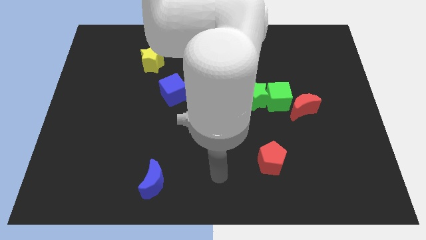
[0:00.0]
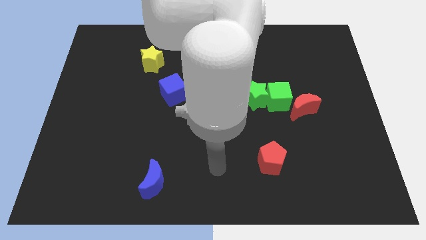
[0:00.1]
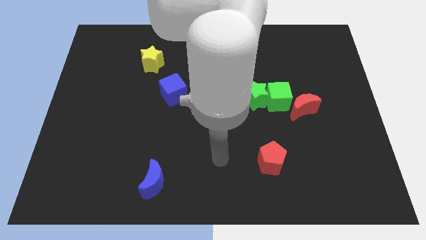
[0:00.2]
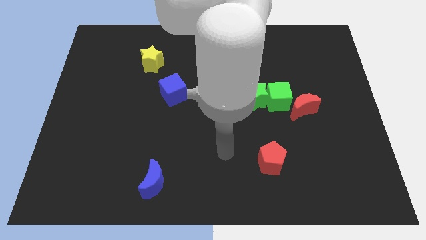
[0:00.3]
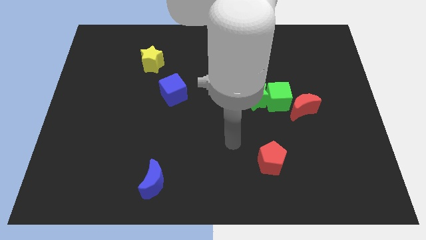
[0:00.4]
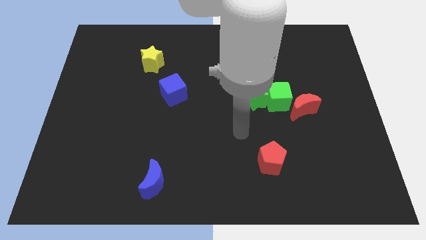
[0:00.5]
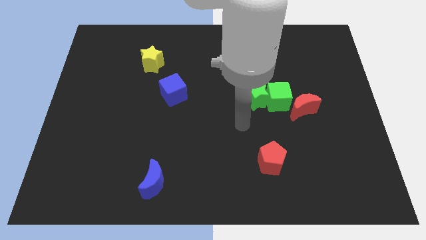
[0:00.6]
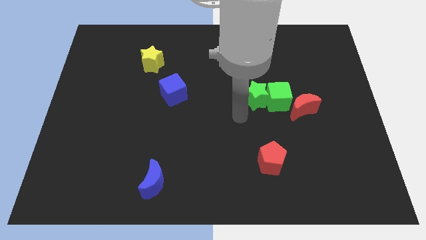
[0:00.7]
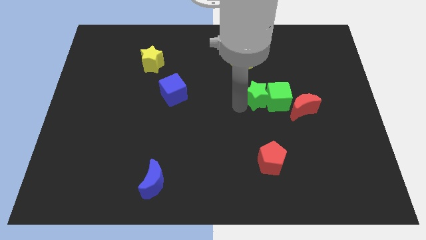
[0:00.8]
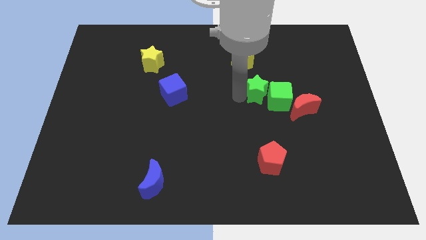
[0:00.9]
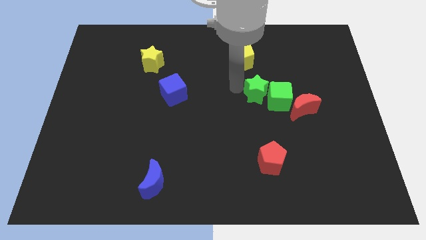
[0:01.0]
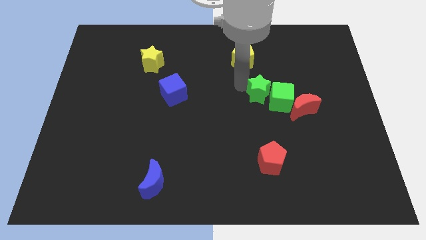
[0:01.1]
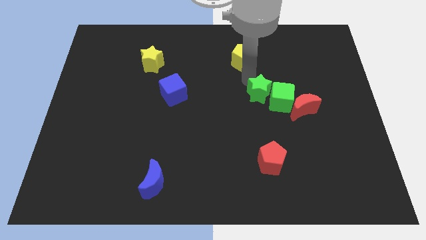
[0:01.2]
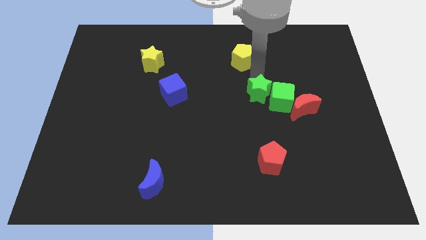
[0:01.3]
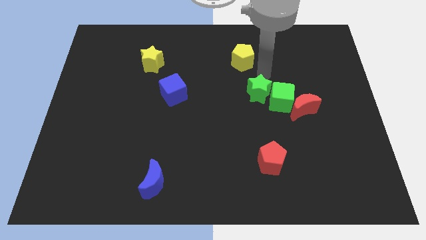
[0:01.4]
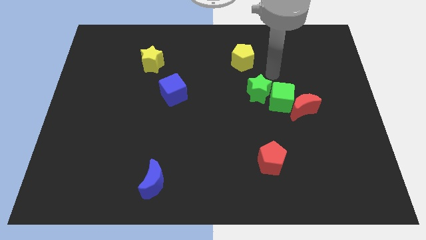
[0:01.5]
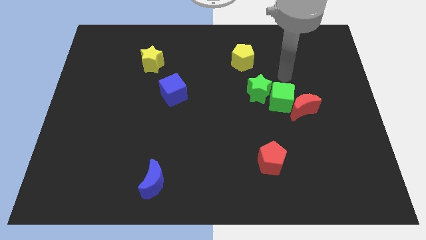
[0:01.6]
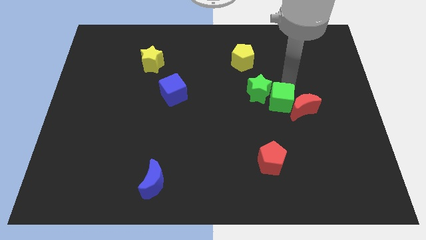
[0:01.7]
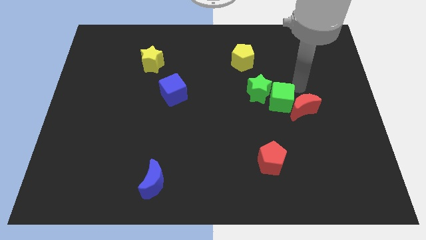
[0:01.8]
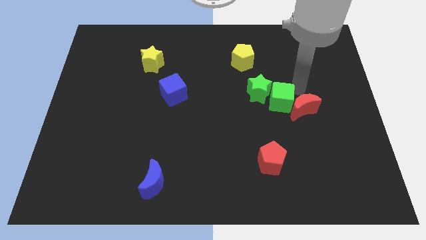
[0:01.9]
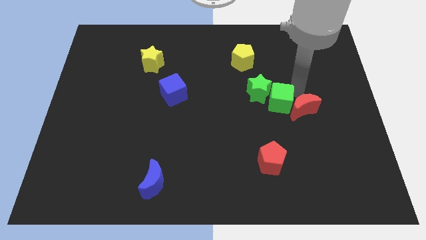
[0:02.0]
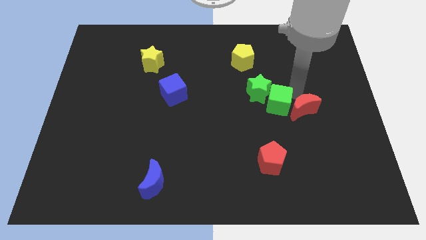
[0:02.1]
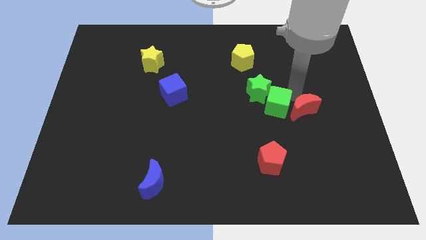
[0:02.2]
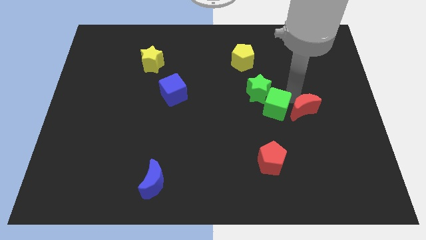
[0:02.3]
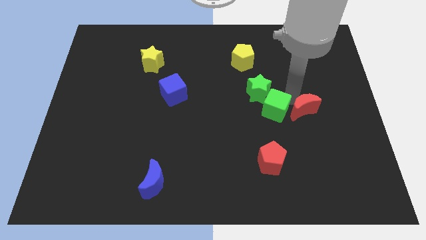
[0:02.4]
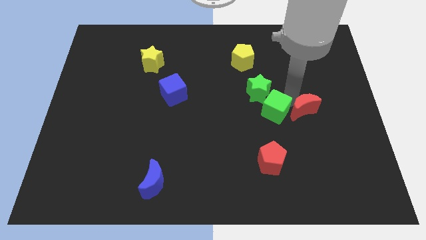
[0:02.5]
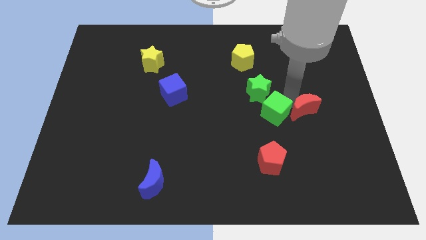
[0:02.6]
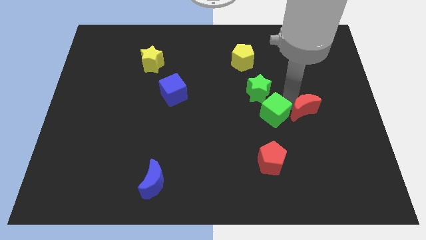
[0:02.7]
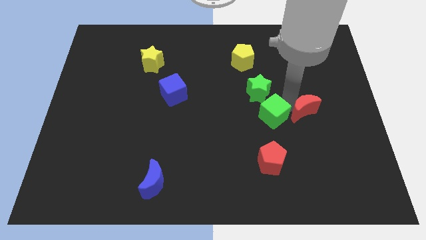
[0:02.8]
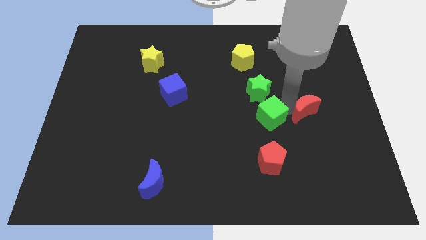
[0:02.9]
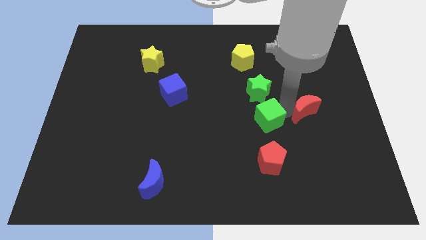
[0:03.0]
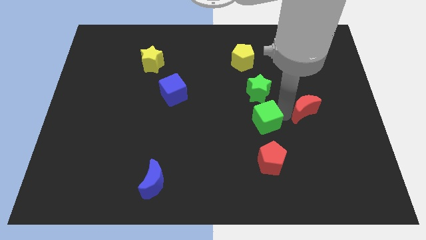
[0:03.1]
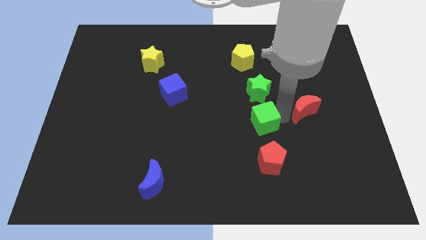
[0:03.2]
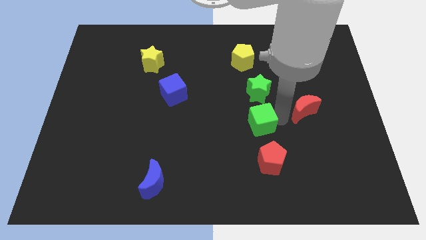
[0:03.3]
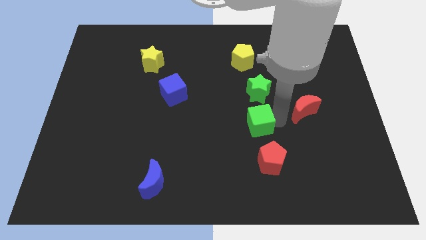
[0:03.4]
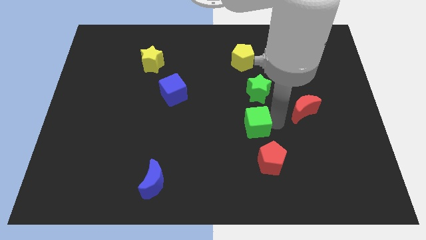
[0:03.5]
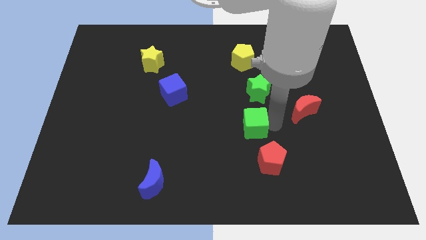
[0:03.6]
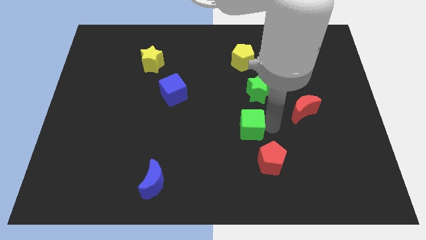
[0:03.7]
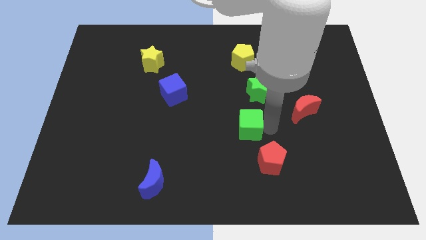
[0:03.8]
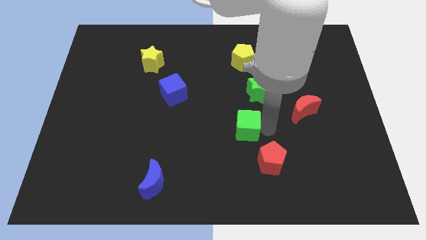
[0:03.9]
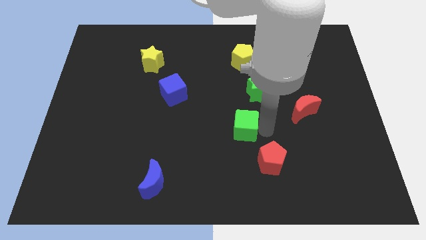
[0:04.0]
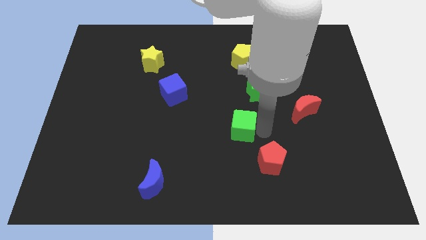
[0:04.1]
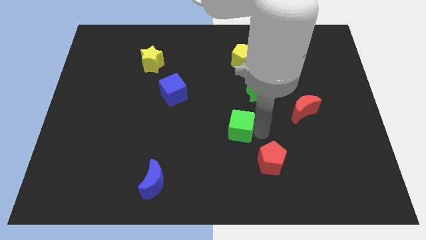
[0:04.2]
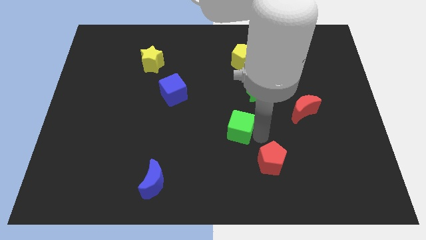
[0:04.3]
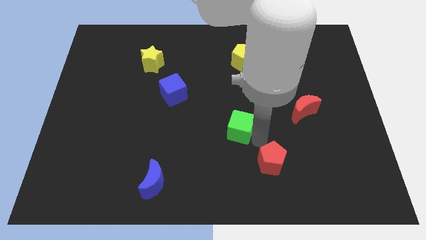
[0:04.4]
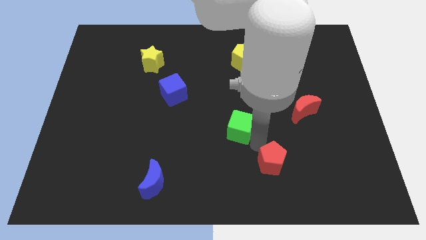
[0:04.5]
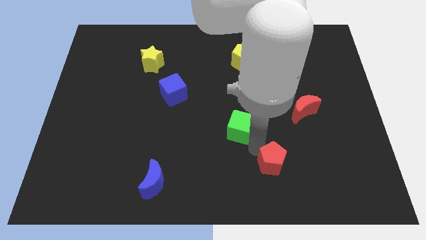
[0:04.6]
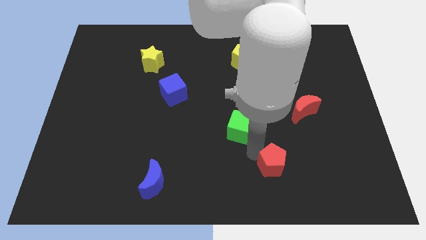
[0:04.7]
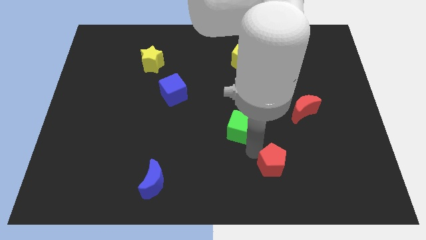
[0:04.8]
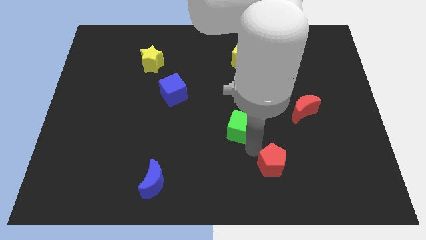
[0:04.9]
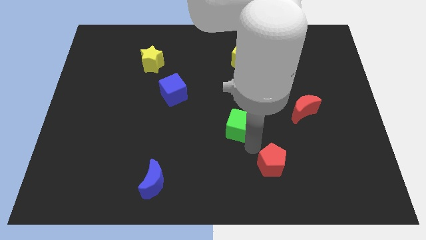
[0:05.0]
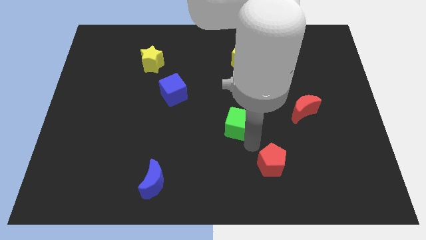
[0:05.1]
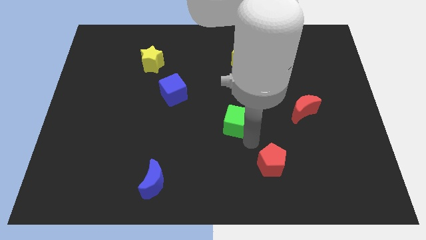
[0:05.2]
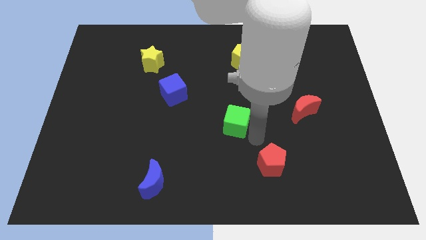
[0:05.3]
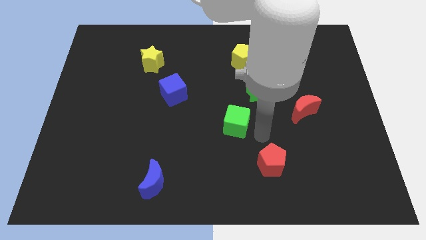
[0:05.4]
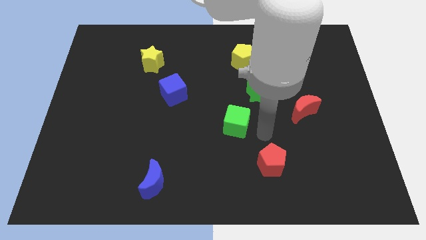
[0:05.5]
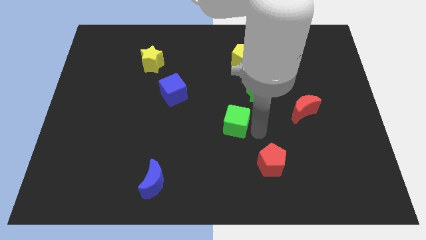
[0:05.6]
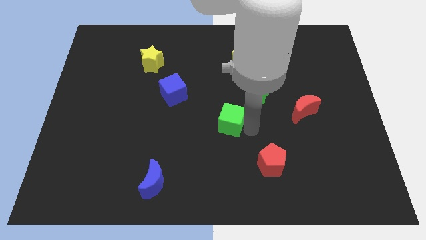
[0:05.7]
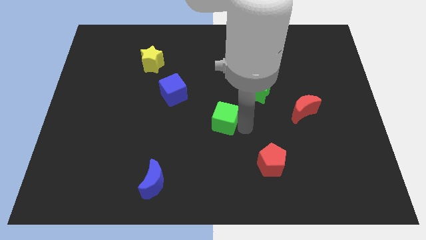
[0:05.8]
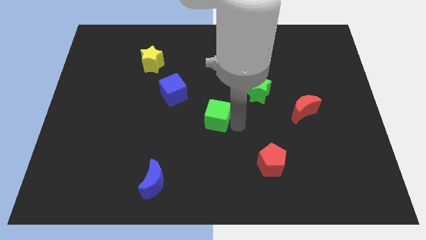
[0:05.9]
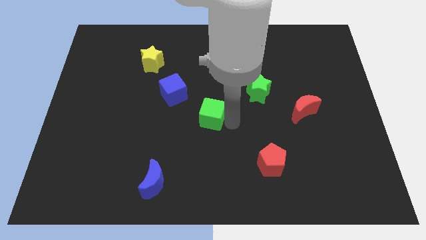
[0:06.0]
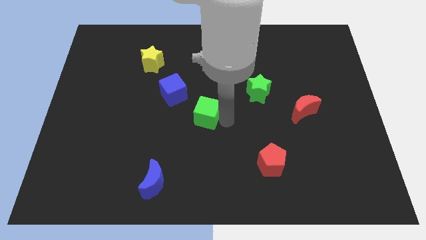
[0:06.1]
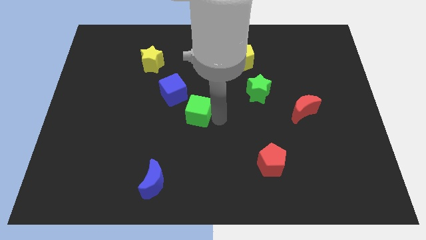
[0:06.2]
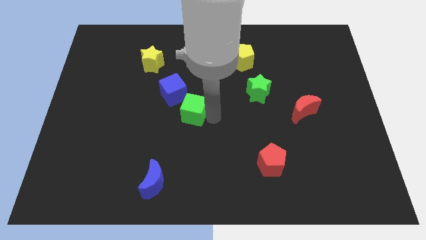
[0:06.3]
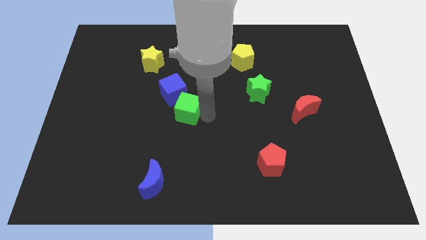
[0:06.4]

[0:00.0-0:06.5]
move the green cube left

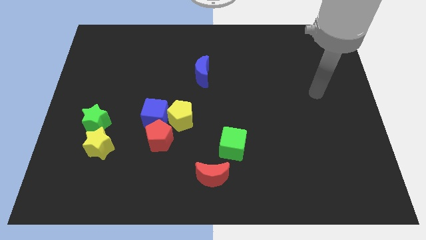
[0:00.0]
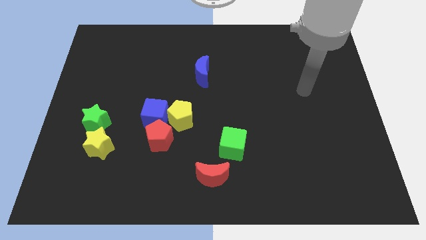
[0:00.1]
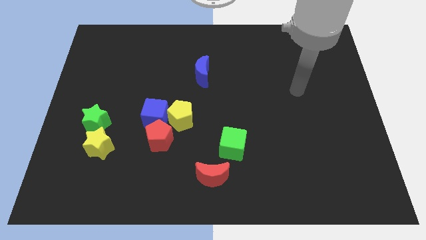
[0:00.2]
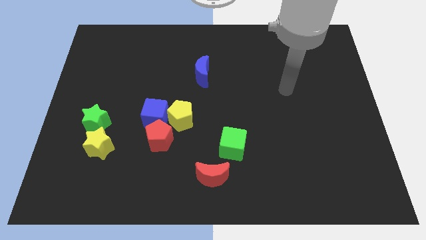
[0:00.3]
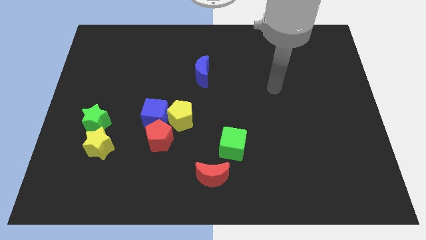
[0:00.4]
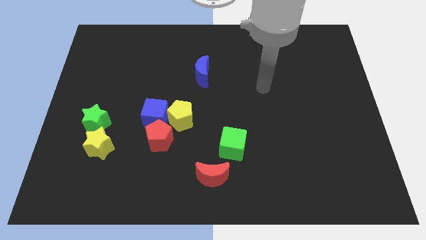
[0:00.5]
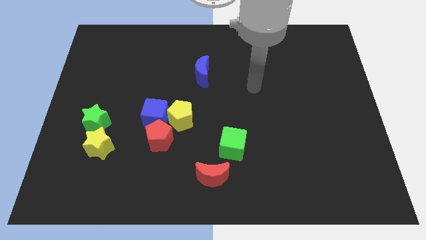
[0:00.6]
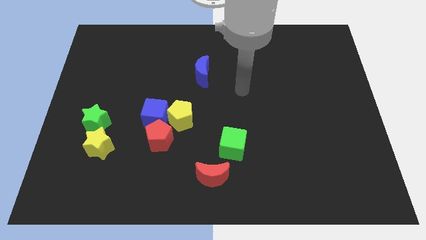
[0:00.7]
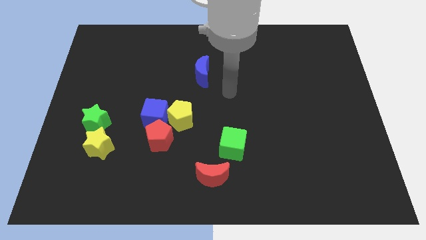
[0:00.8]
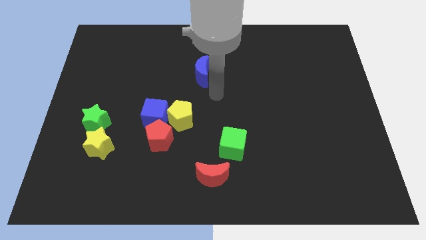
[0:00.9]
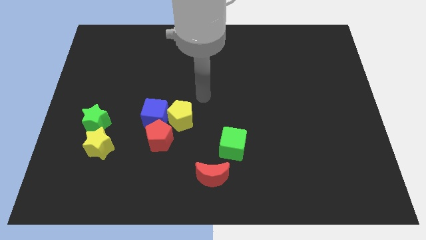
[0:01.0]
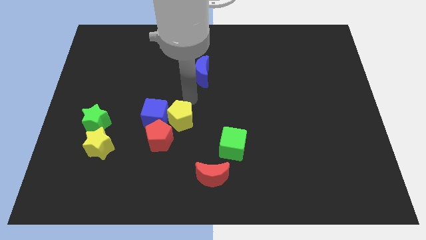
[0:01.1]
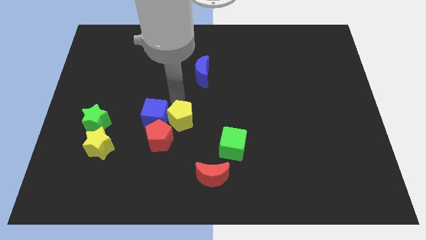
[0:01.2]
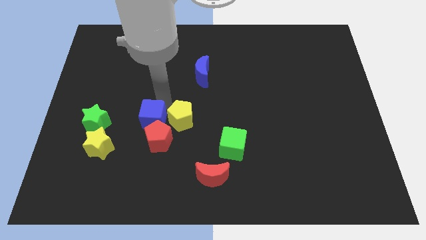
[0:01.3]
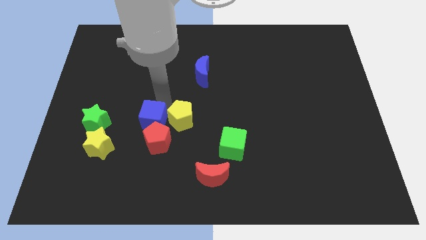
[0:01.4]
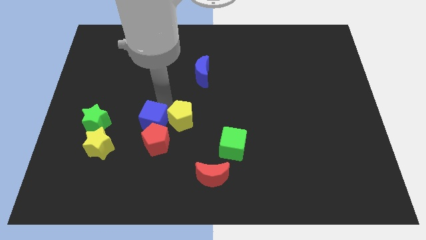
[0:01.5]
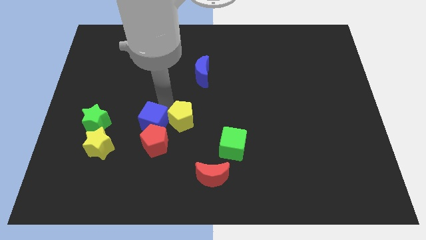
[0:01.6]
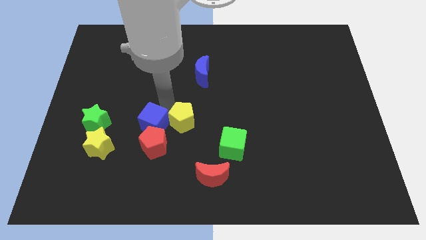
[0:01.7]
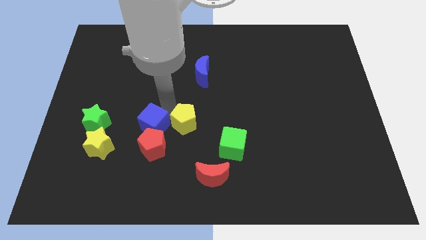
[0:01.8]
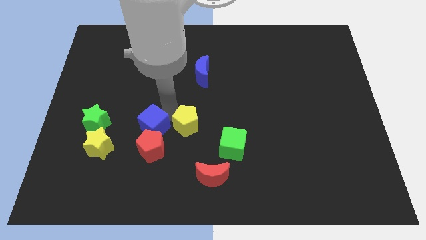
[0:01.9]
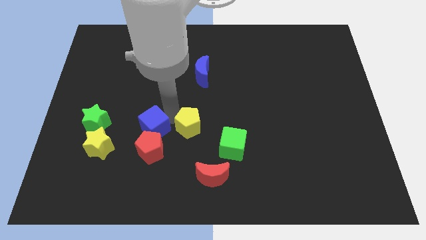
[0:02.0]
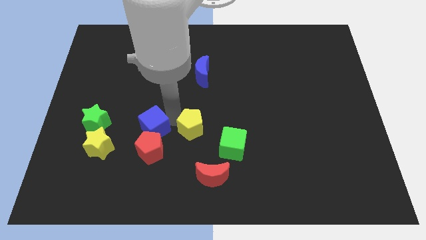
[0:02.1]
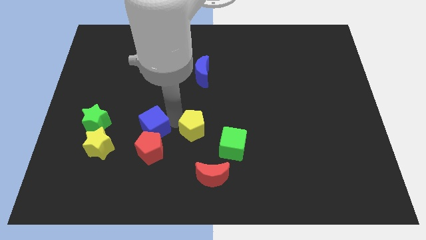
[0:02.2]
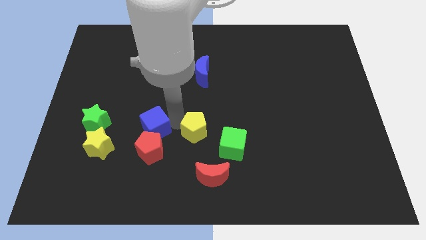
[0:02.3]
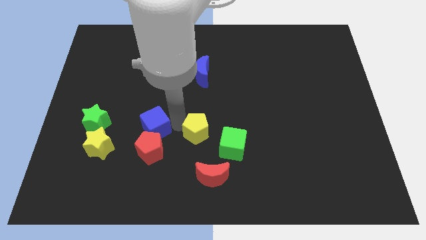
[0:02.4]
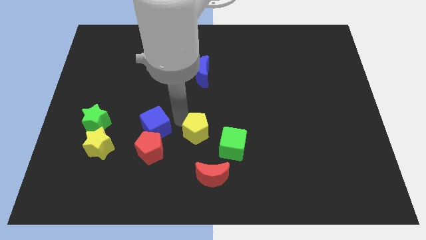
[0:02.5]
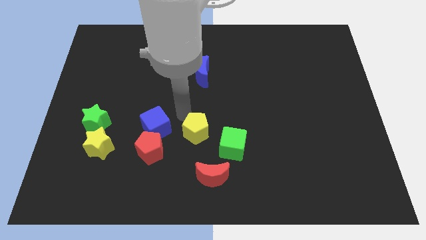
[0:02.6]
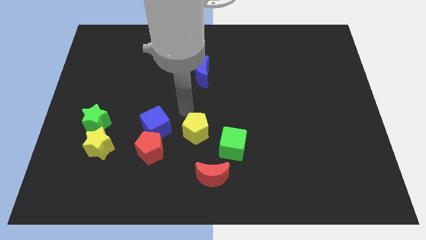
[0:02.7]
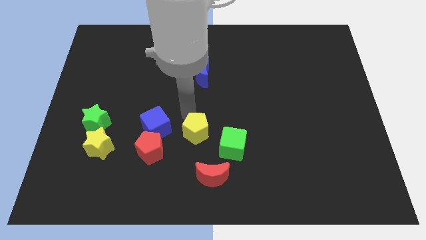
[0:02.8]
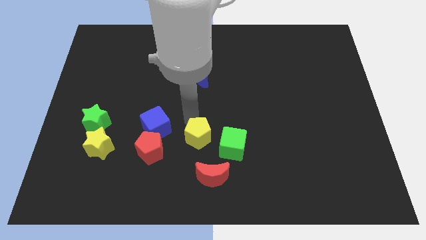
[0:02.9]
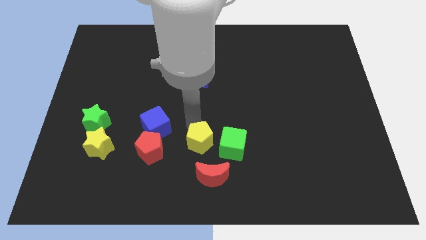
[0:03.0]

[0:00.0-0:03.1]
slide the yellow pentagon downwards and to the right diagonally a little bit
